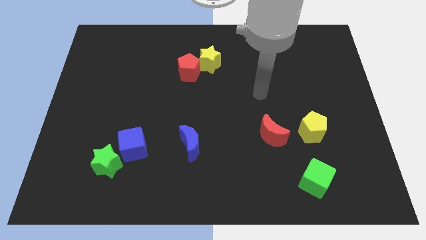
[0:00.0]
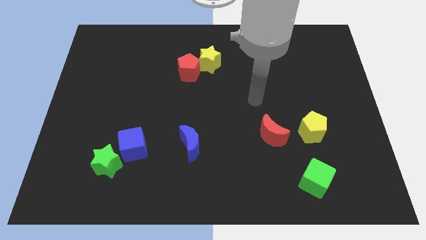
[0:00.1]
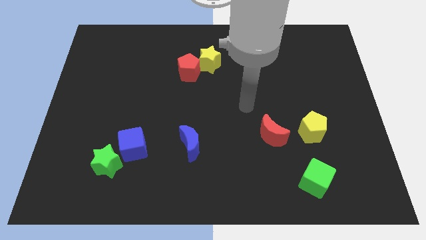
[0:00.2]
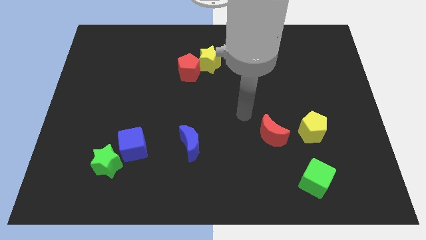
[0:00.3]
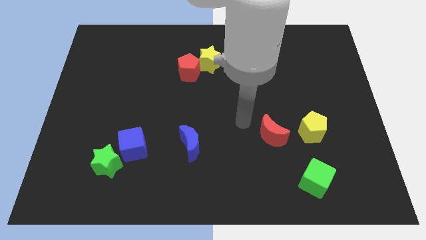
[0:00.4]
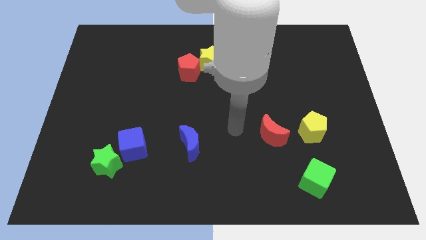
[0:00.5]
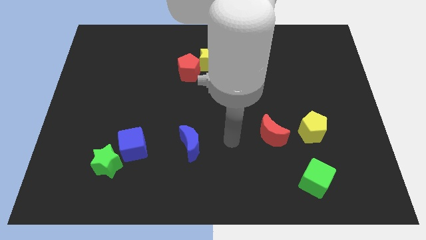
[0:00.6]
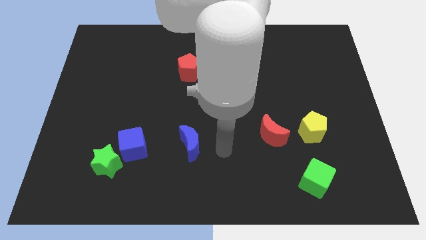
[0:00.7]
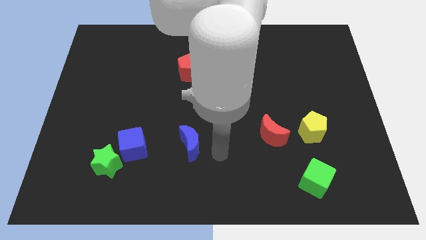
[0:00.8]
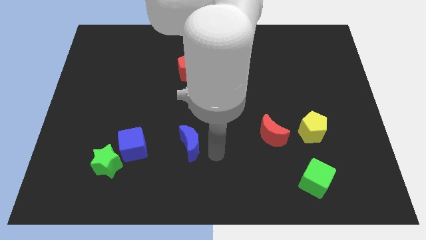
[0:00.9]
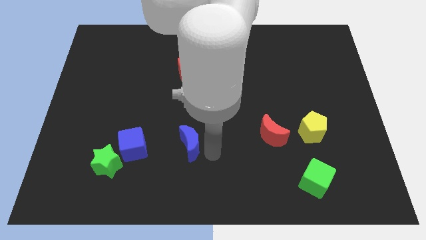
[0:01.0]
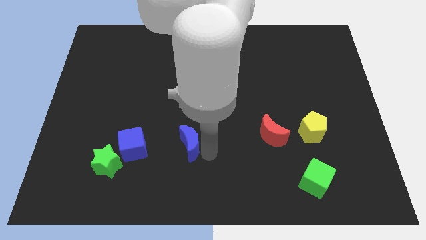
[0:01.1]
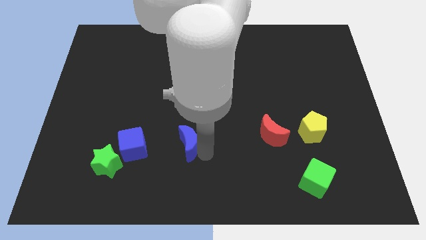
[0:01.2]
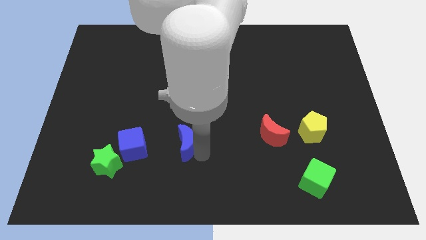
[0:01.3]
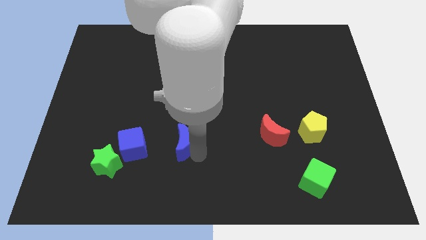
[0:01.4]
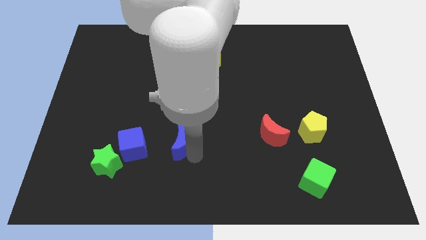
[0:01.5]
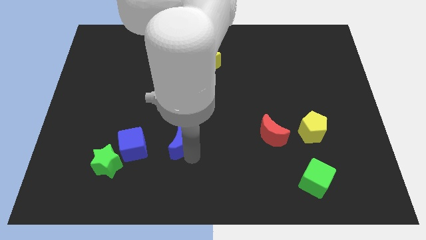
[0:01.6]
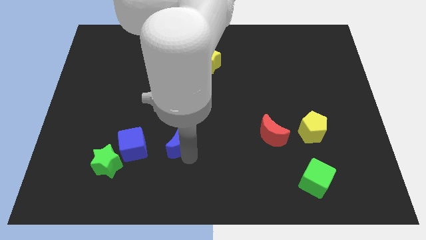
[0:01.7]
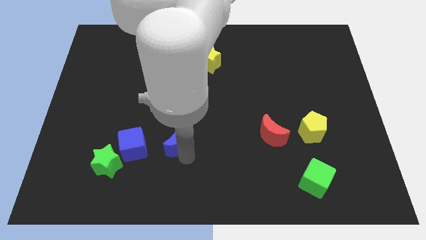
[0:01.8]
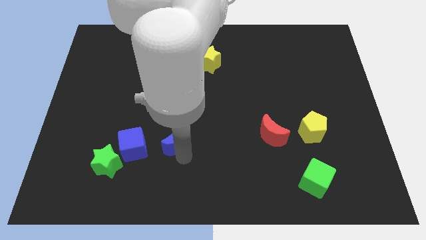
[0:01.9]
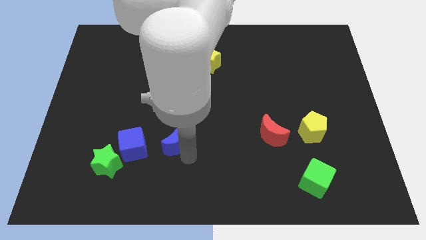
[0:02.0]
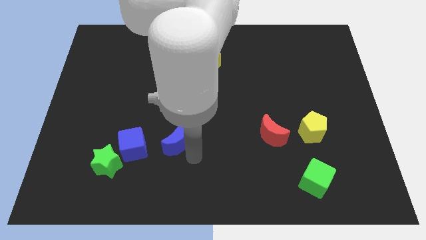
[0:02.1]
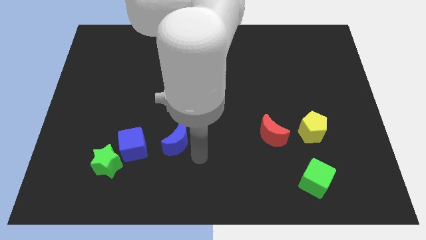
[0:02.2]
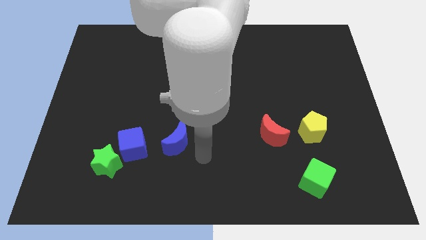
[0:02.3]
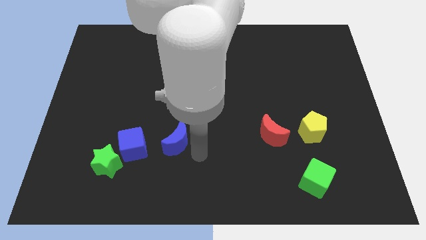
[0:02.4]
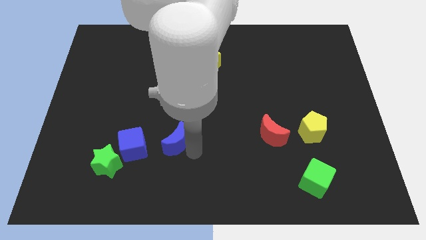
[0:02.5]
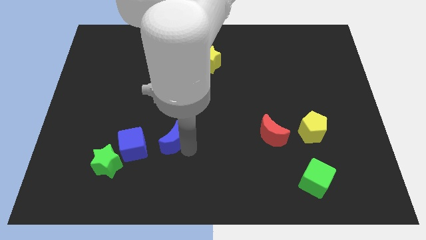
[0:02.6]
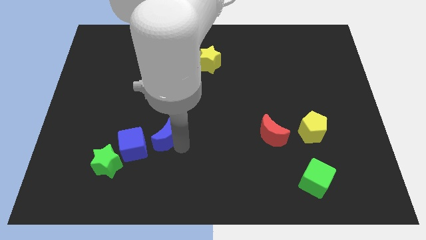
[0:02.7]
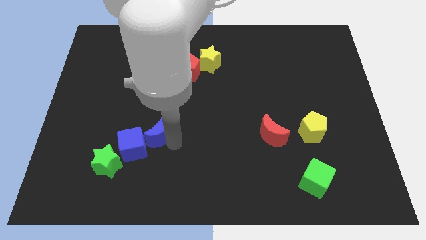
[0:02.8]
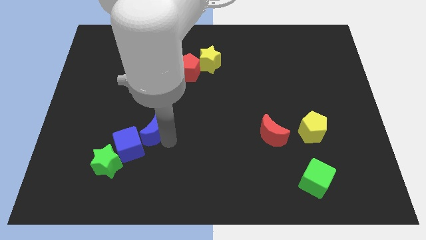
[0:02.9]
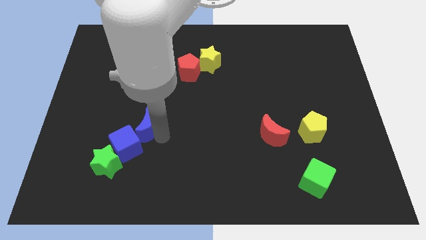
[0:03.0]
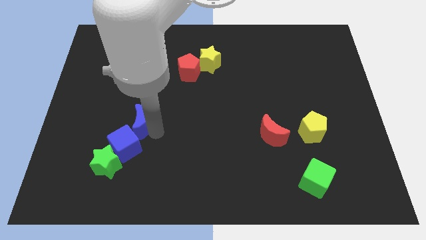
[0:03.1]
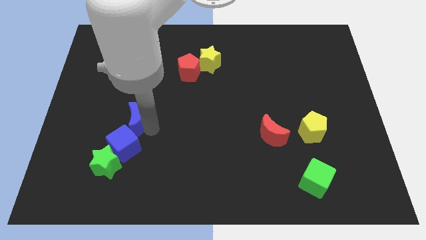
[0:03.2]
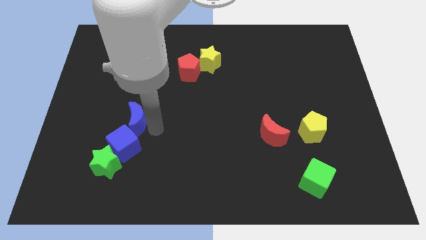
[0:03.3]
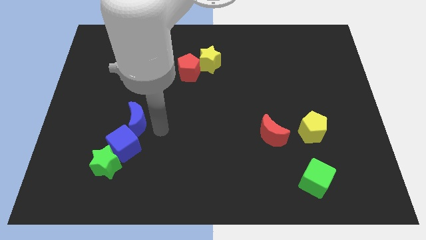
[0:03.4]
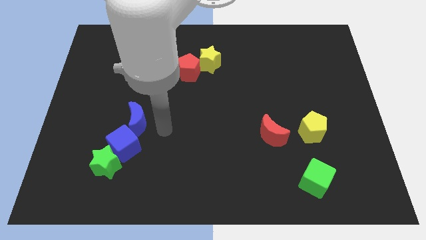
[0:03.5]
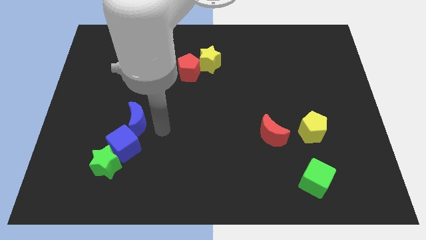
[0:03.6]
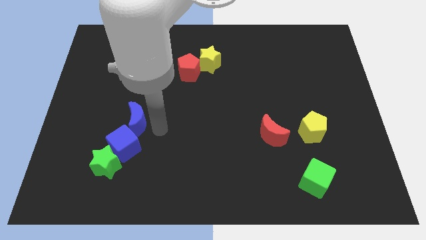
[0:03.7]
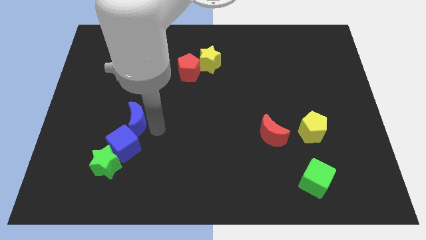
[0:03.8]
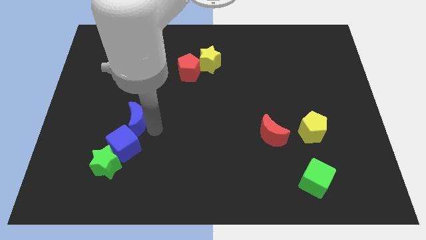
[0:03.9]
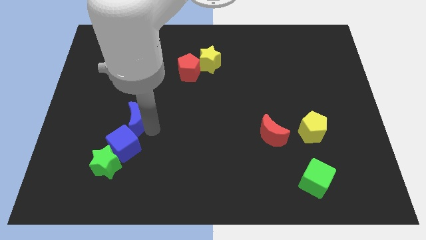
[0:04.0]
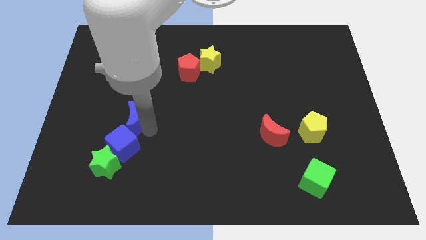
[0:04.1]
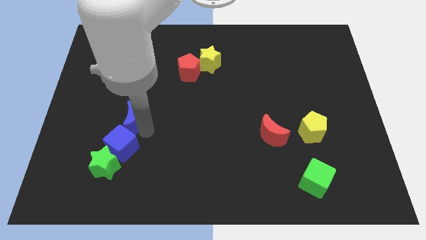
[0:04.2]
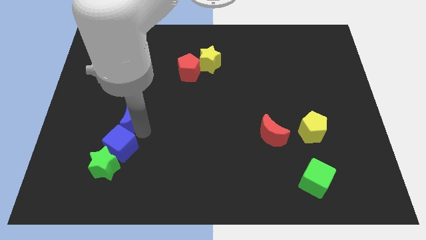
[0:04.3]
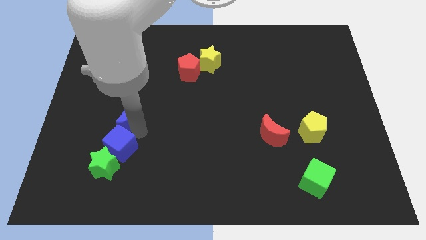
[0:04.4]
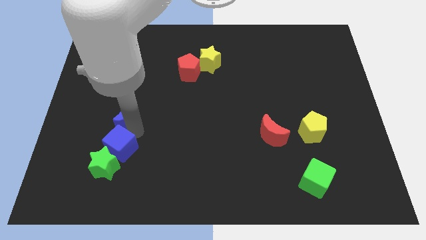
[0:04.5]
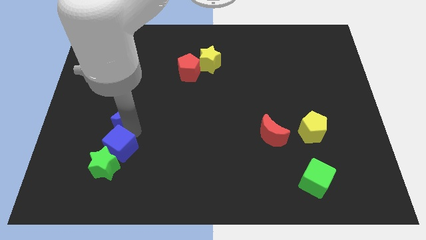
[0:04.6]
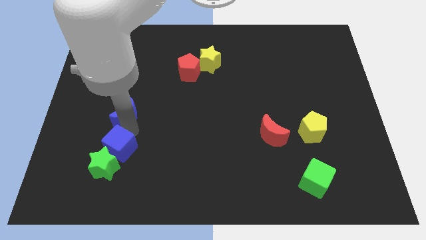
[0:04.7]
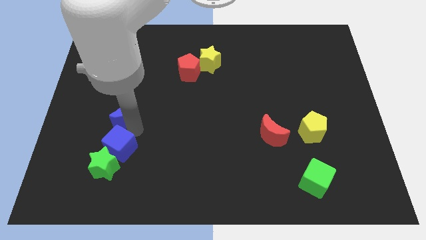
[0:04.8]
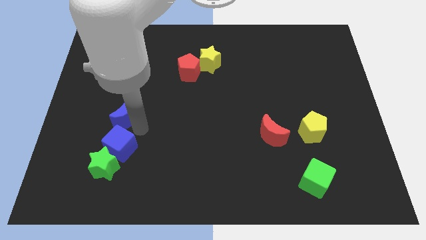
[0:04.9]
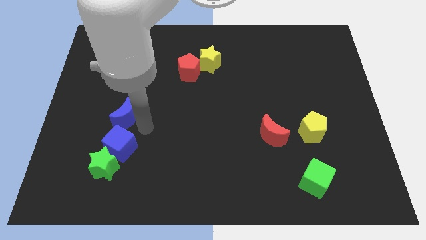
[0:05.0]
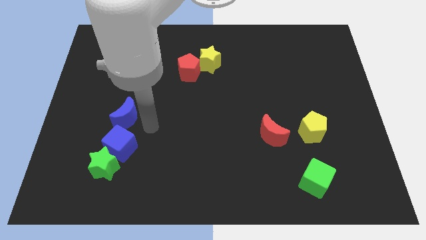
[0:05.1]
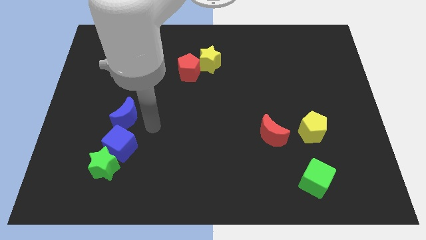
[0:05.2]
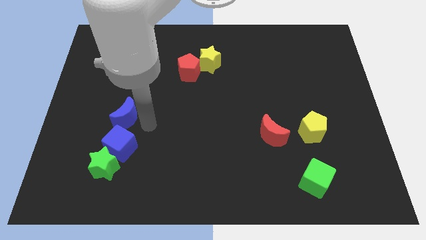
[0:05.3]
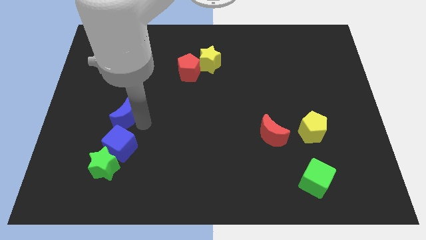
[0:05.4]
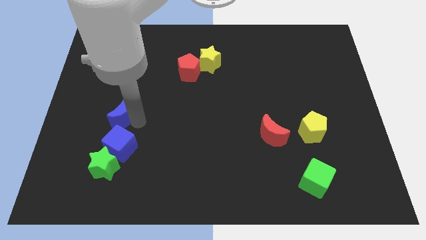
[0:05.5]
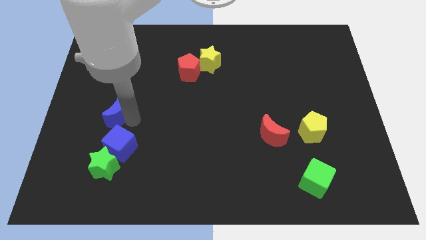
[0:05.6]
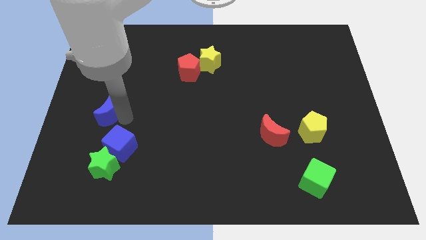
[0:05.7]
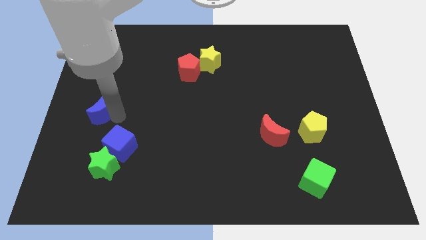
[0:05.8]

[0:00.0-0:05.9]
slide the blue moon to the left side
